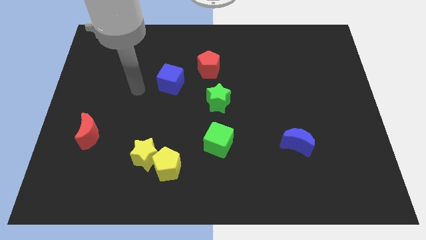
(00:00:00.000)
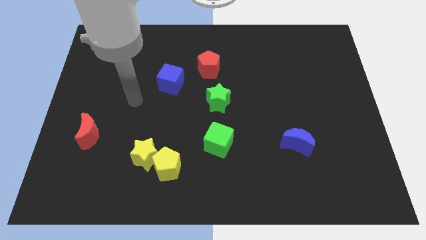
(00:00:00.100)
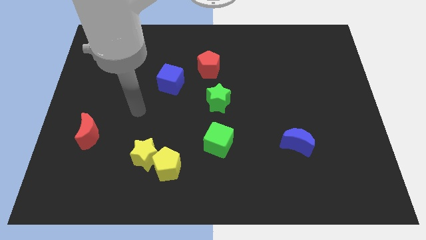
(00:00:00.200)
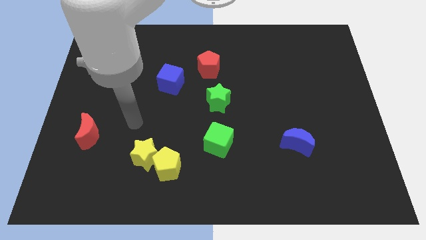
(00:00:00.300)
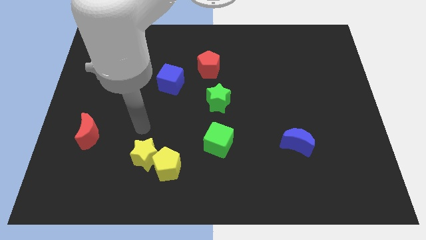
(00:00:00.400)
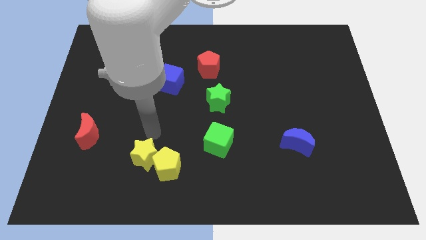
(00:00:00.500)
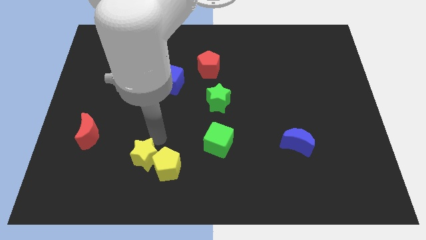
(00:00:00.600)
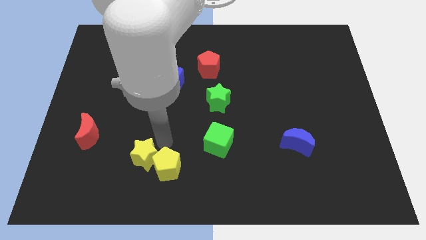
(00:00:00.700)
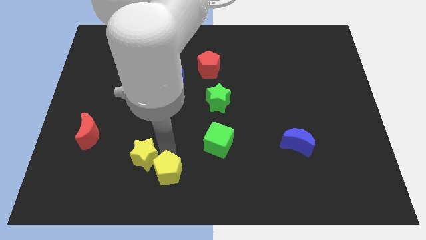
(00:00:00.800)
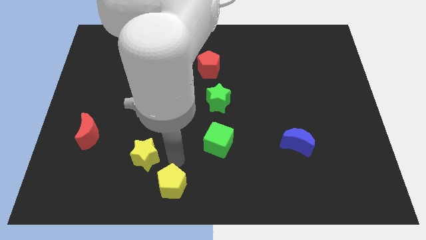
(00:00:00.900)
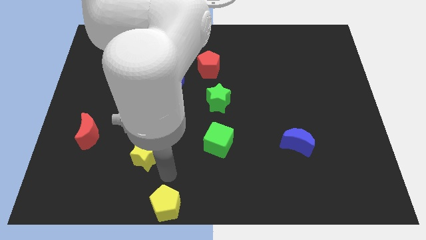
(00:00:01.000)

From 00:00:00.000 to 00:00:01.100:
pull the yellow star apart from the yellow pentagon

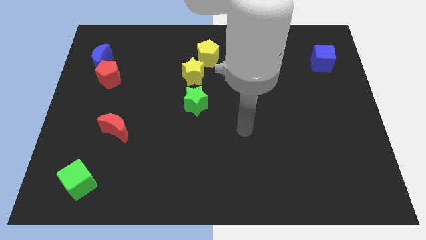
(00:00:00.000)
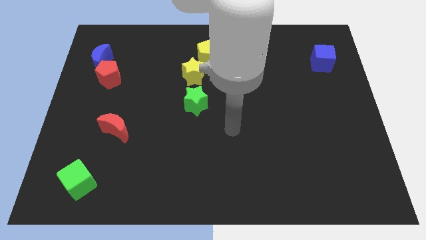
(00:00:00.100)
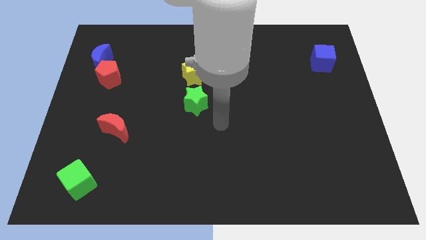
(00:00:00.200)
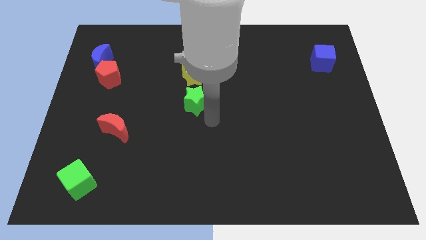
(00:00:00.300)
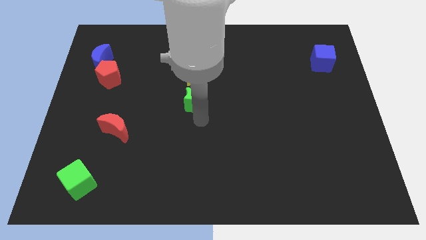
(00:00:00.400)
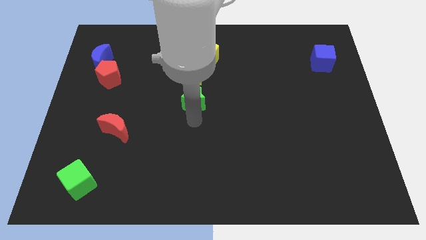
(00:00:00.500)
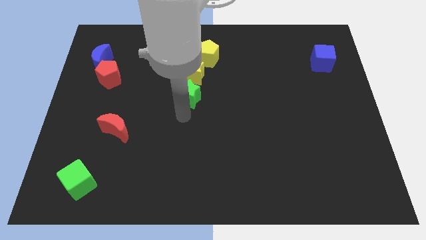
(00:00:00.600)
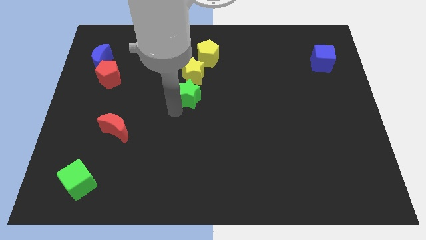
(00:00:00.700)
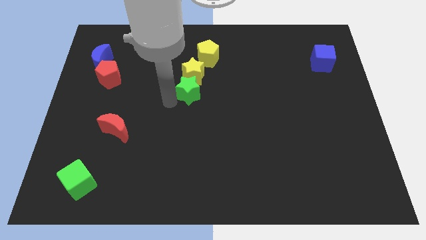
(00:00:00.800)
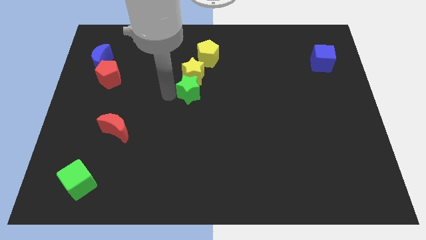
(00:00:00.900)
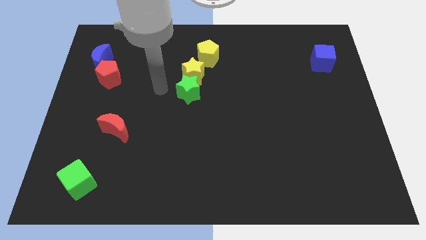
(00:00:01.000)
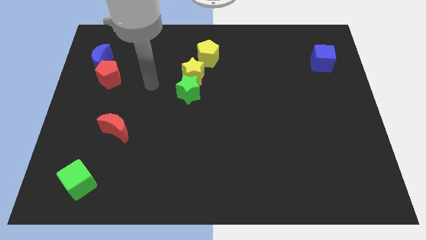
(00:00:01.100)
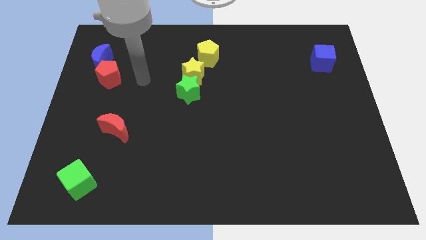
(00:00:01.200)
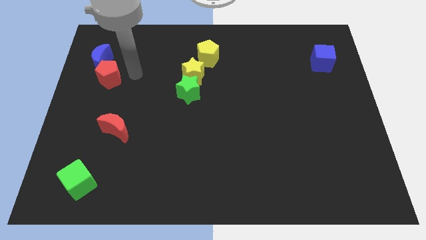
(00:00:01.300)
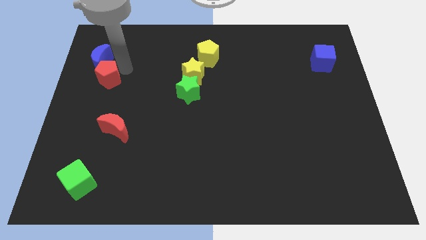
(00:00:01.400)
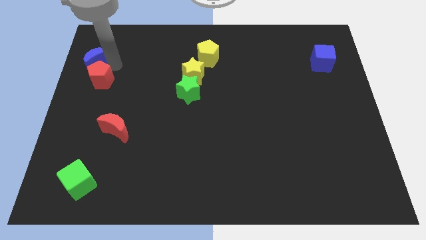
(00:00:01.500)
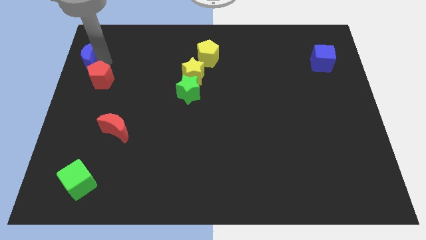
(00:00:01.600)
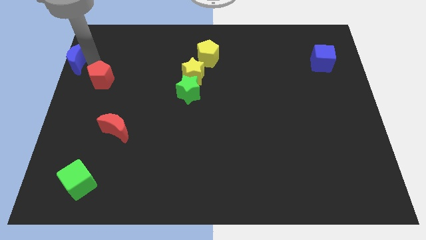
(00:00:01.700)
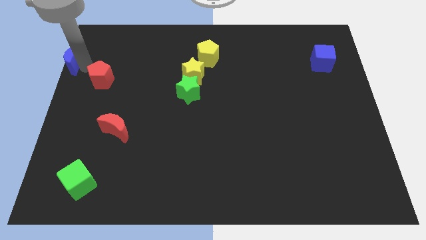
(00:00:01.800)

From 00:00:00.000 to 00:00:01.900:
move the red pentagon away from the blue moon

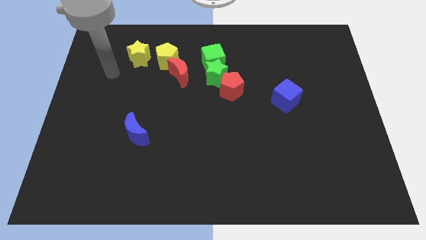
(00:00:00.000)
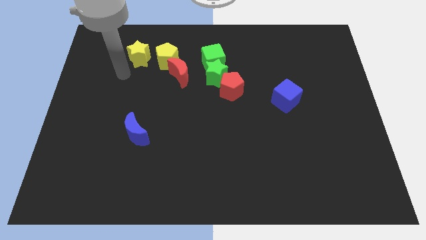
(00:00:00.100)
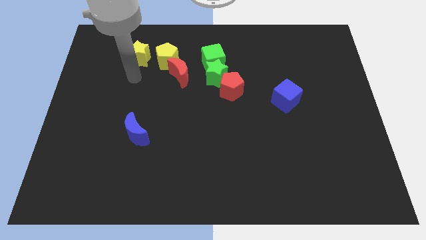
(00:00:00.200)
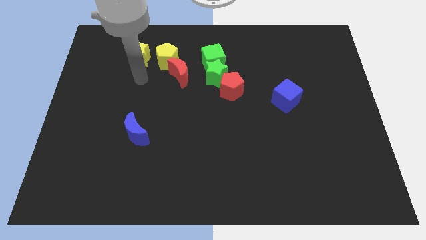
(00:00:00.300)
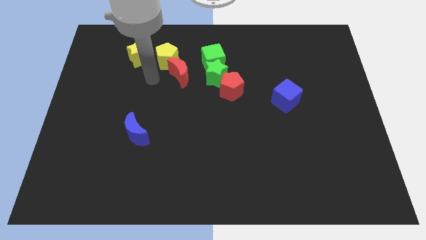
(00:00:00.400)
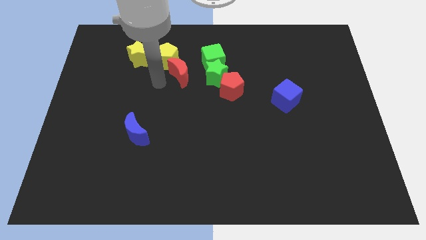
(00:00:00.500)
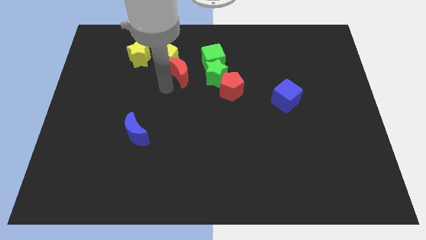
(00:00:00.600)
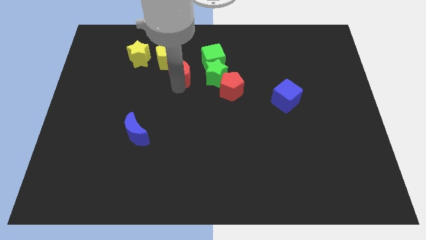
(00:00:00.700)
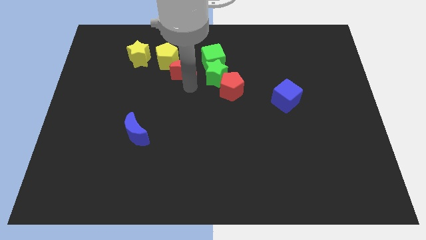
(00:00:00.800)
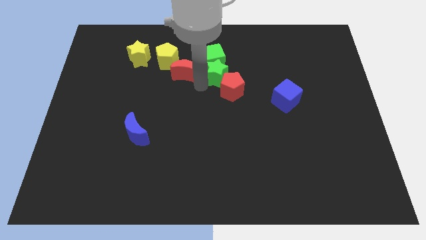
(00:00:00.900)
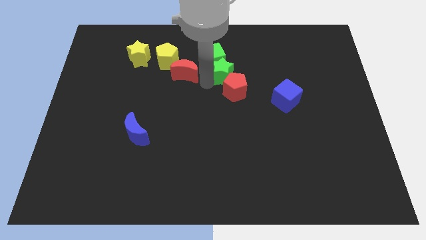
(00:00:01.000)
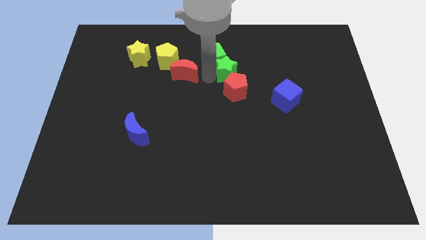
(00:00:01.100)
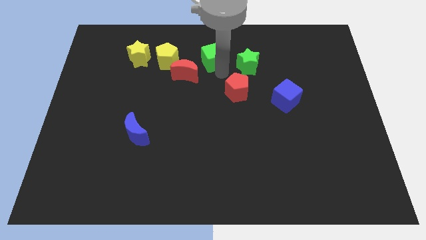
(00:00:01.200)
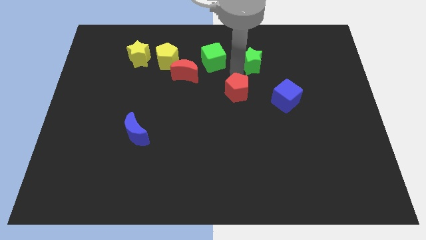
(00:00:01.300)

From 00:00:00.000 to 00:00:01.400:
pull the red pentagon apart from the green star

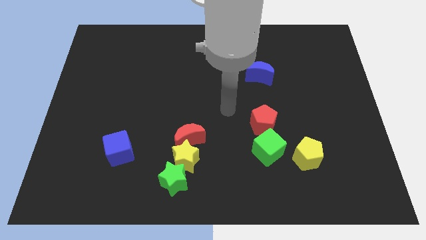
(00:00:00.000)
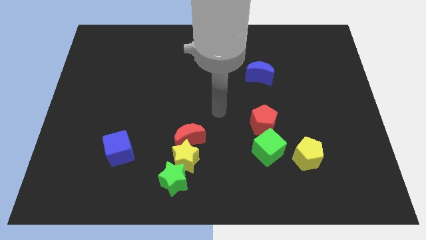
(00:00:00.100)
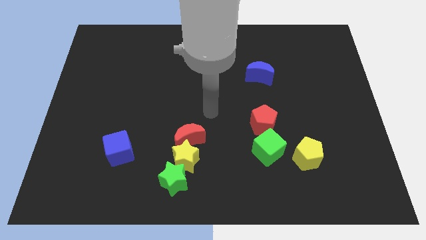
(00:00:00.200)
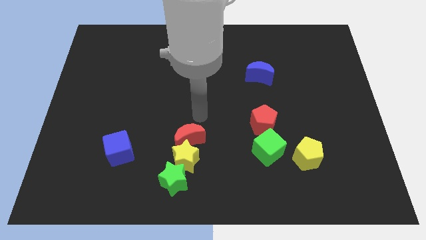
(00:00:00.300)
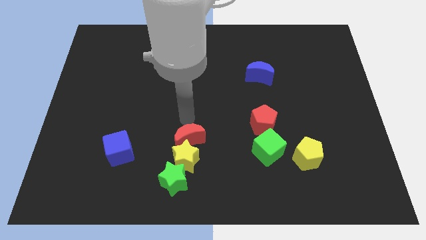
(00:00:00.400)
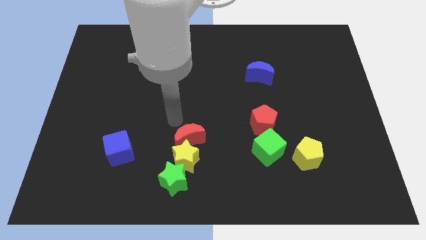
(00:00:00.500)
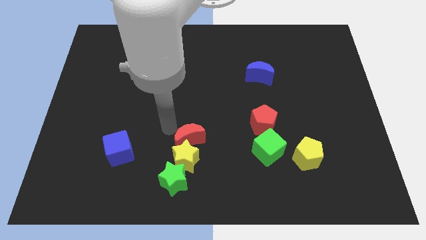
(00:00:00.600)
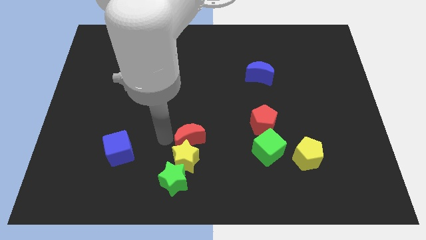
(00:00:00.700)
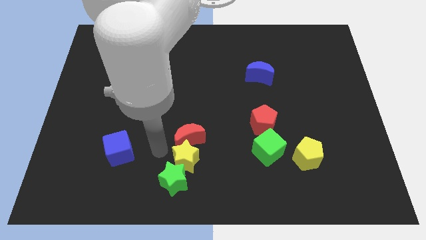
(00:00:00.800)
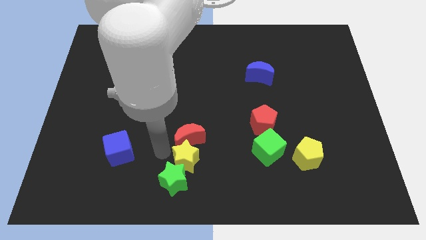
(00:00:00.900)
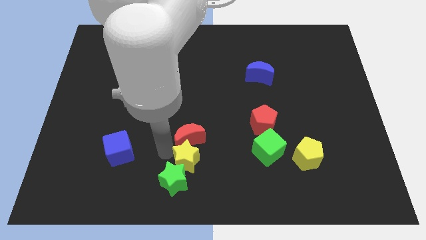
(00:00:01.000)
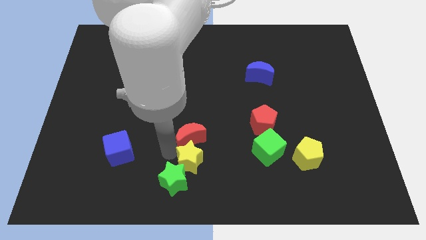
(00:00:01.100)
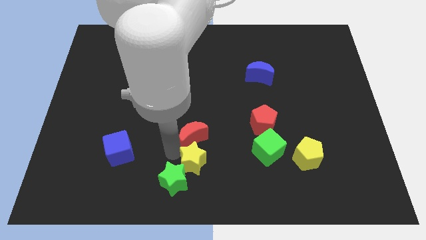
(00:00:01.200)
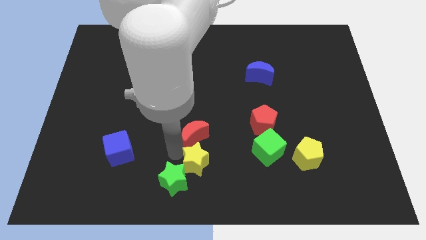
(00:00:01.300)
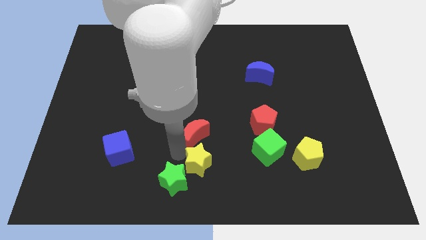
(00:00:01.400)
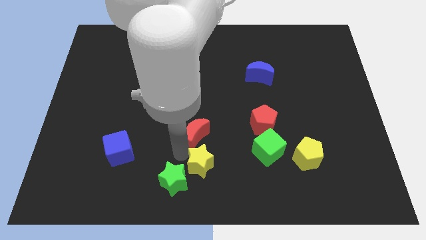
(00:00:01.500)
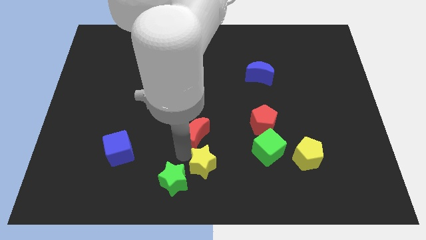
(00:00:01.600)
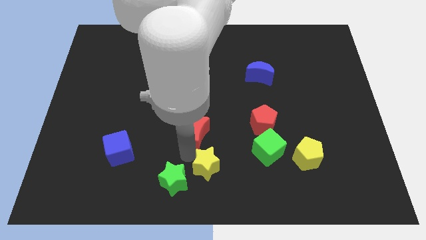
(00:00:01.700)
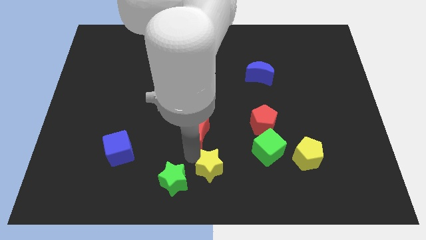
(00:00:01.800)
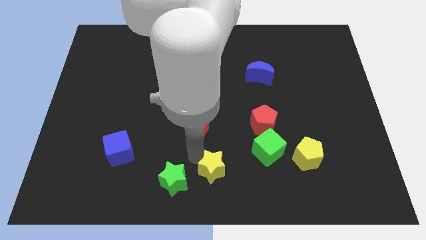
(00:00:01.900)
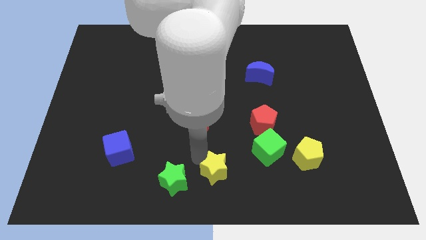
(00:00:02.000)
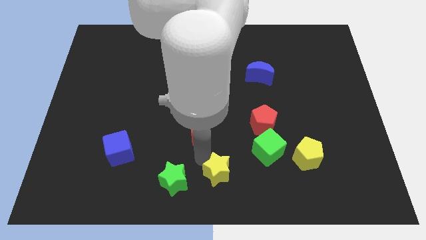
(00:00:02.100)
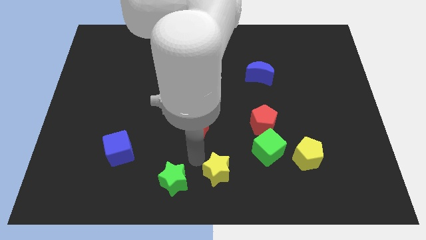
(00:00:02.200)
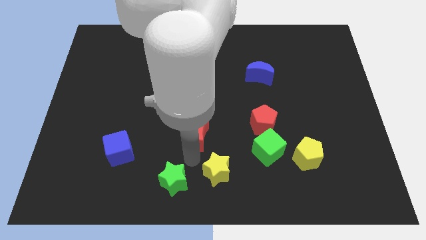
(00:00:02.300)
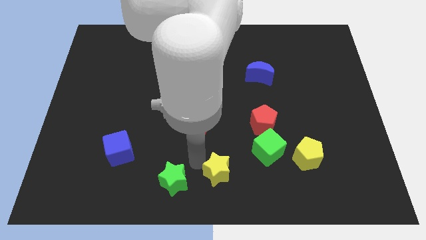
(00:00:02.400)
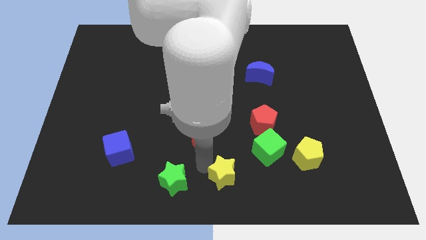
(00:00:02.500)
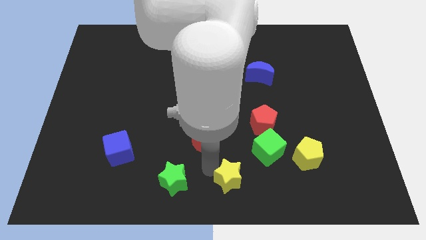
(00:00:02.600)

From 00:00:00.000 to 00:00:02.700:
move the yellow star away from the red moon and green star

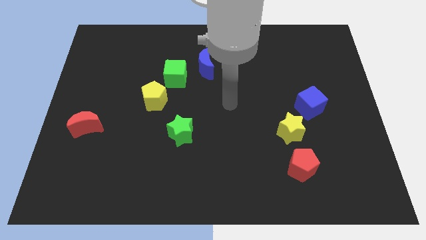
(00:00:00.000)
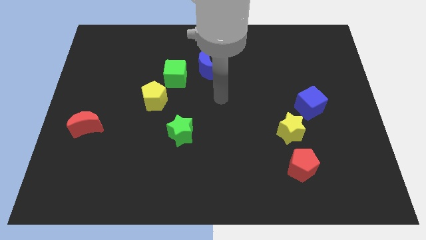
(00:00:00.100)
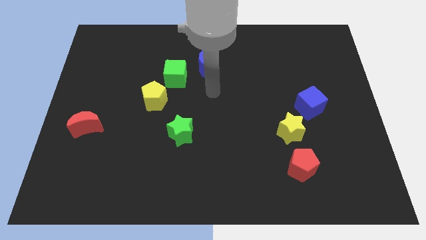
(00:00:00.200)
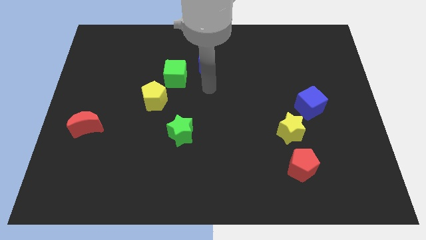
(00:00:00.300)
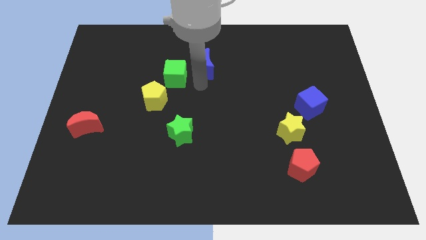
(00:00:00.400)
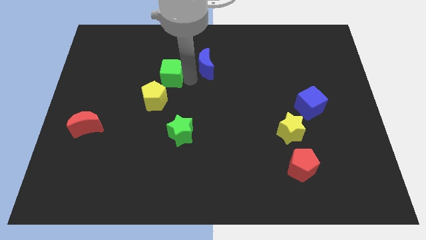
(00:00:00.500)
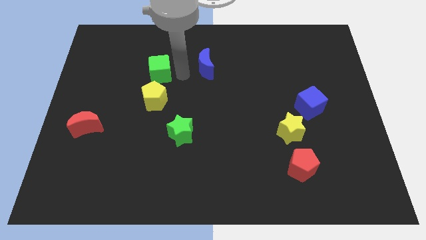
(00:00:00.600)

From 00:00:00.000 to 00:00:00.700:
pull the blue moon apart from the green cube

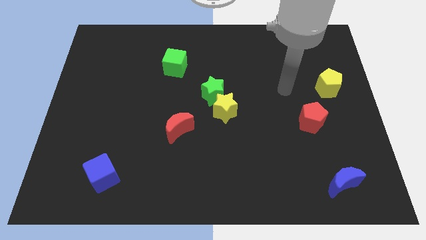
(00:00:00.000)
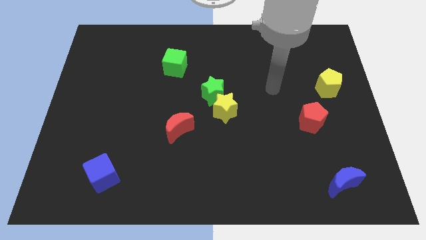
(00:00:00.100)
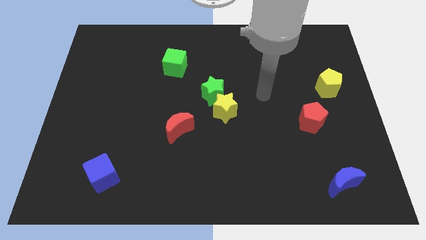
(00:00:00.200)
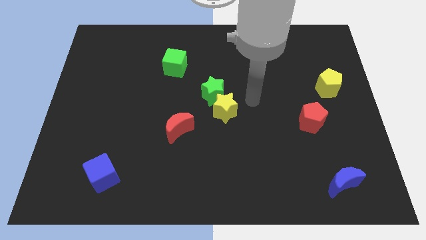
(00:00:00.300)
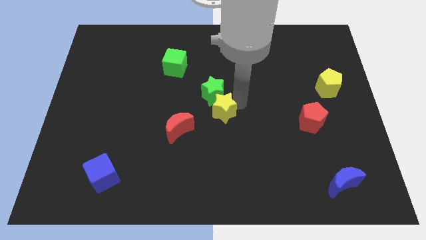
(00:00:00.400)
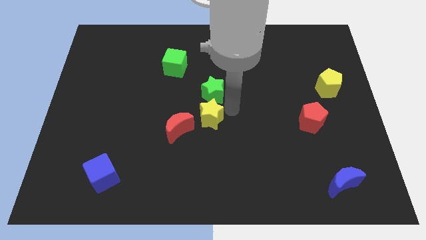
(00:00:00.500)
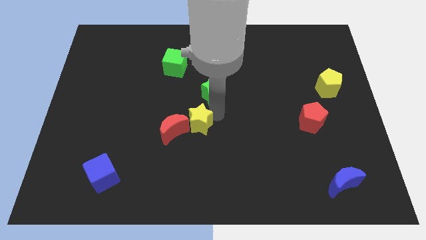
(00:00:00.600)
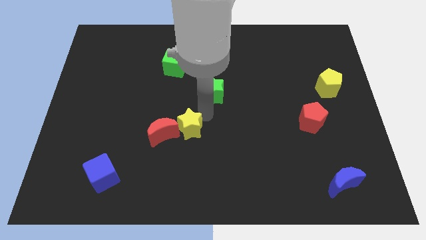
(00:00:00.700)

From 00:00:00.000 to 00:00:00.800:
separate the green star from the yellow star

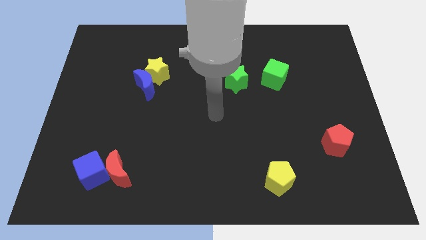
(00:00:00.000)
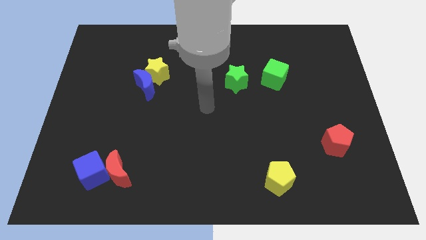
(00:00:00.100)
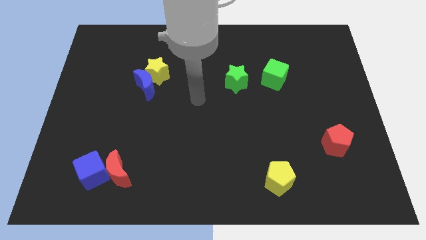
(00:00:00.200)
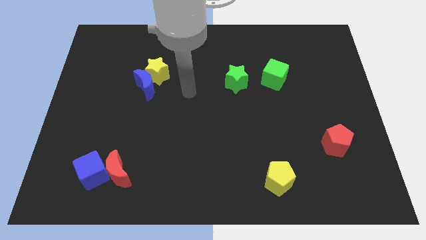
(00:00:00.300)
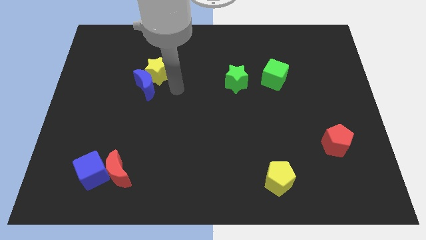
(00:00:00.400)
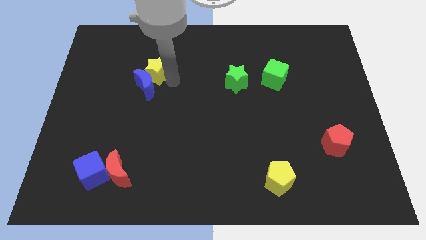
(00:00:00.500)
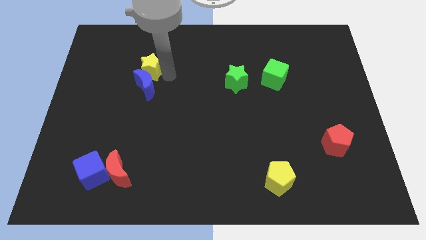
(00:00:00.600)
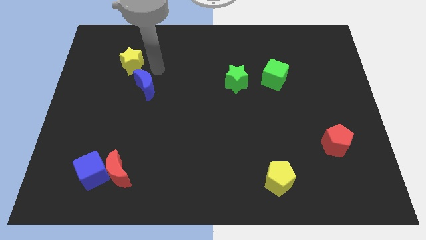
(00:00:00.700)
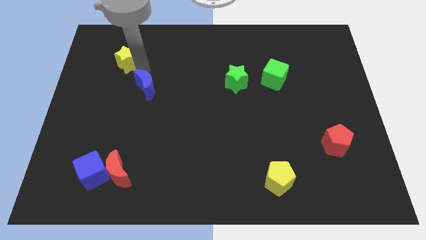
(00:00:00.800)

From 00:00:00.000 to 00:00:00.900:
move the blue moon away from the yellow star
